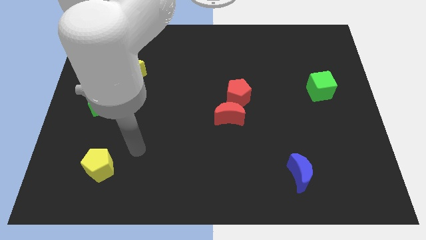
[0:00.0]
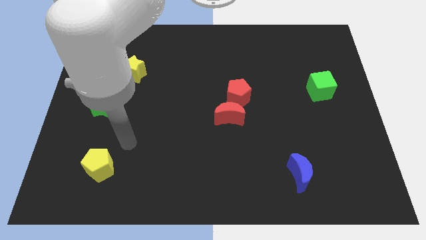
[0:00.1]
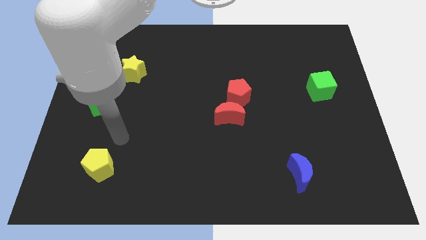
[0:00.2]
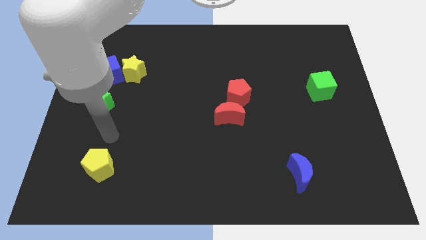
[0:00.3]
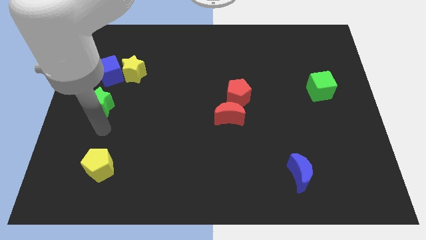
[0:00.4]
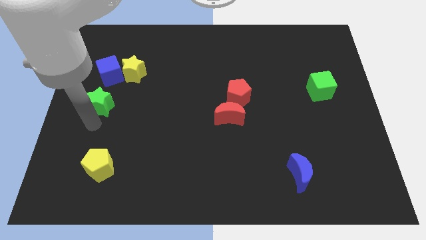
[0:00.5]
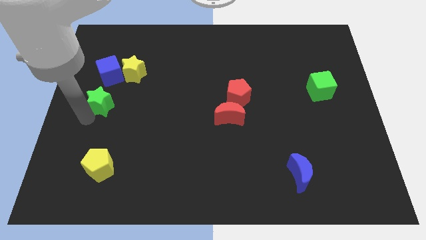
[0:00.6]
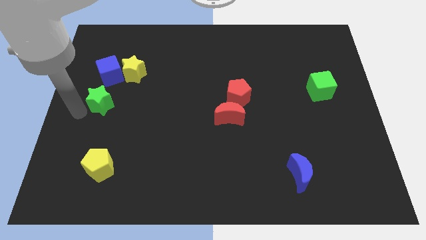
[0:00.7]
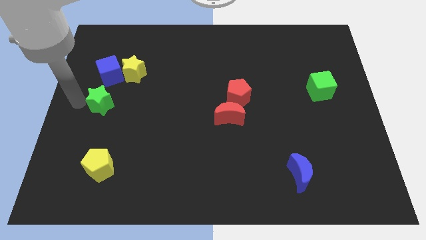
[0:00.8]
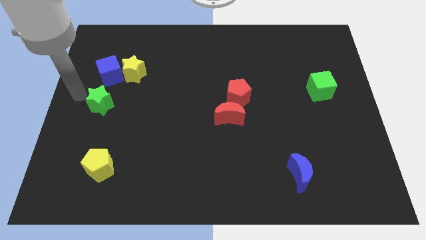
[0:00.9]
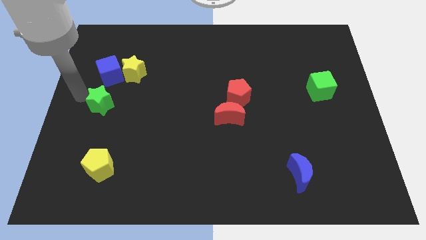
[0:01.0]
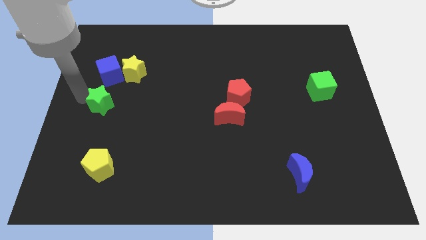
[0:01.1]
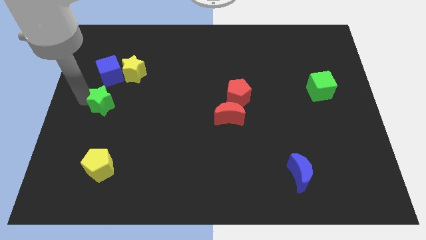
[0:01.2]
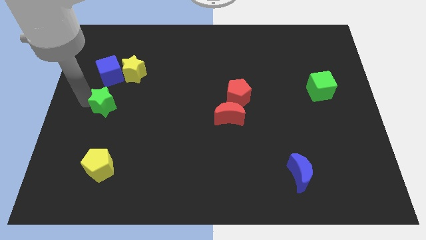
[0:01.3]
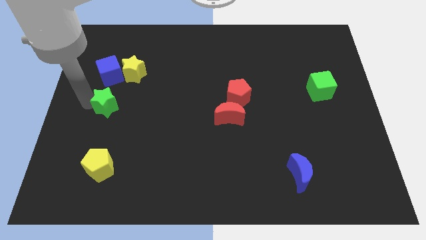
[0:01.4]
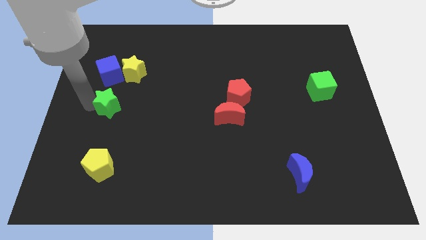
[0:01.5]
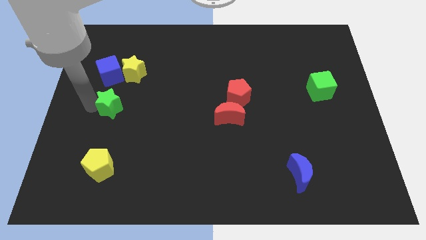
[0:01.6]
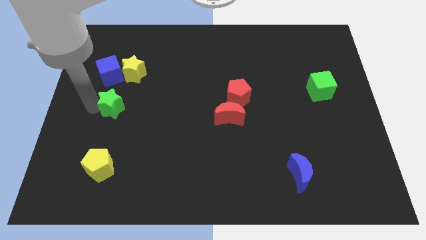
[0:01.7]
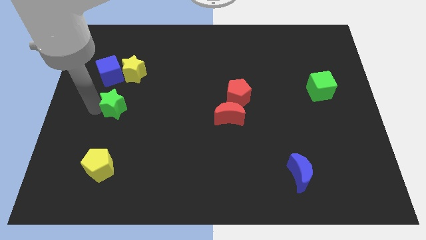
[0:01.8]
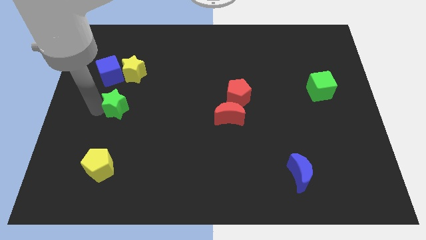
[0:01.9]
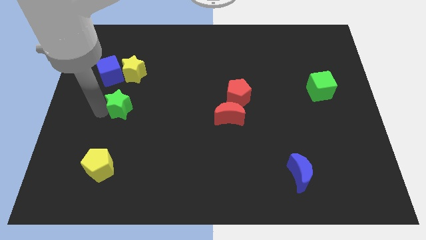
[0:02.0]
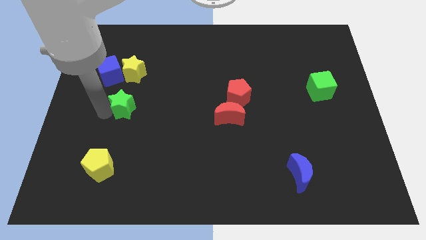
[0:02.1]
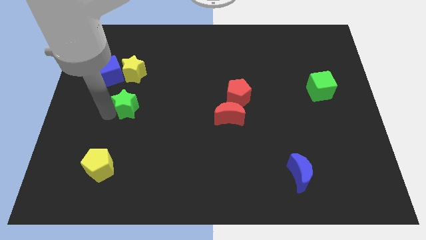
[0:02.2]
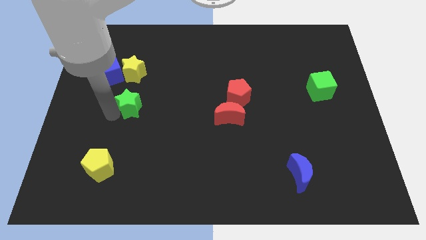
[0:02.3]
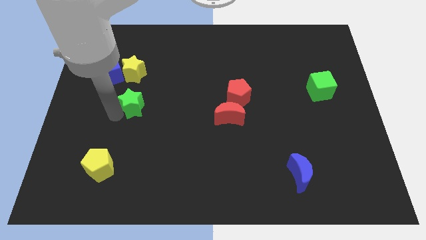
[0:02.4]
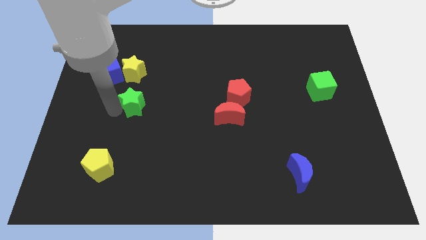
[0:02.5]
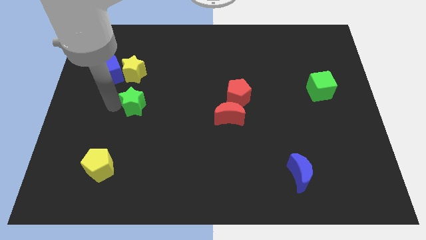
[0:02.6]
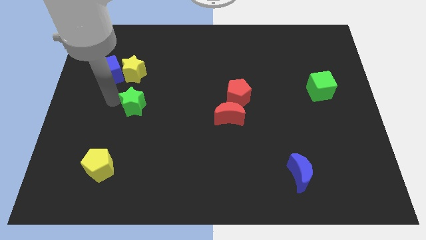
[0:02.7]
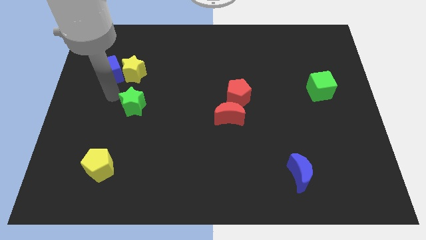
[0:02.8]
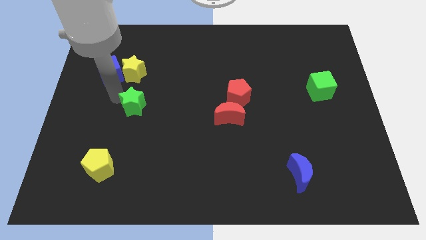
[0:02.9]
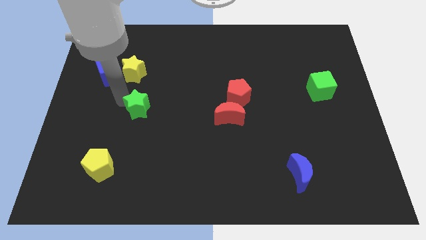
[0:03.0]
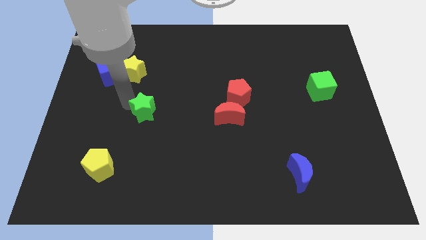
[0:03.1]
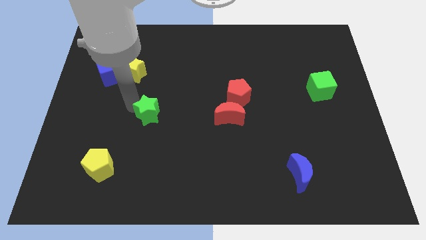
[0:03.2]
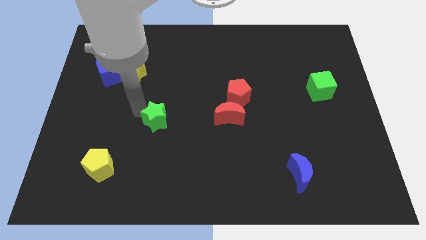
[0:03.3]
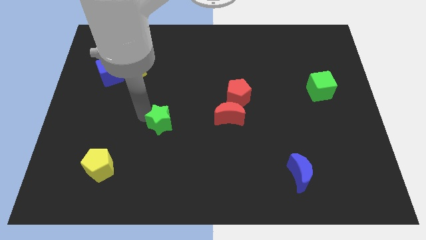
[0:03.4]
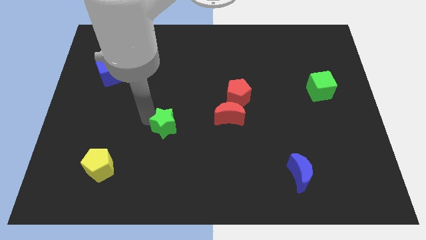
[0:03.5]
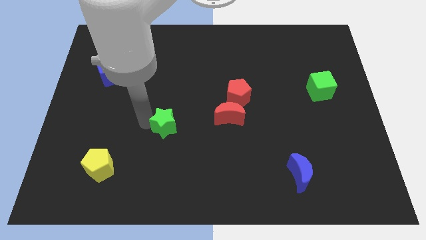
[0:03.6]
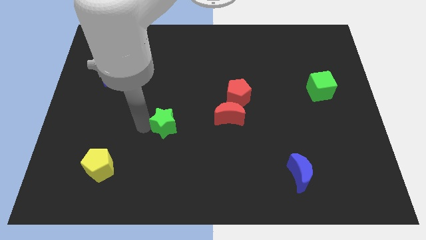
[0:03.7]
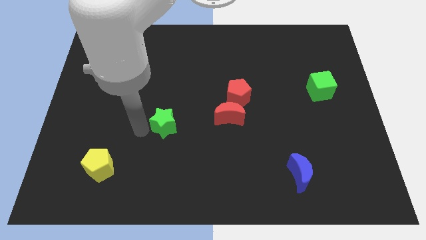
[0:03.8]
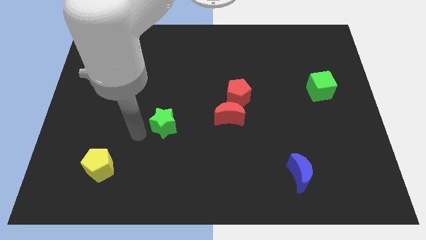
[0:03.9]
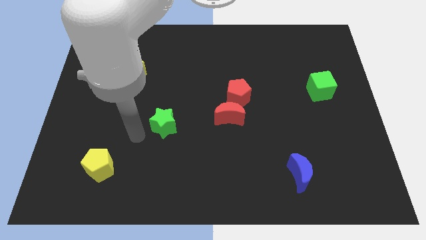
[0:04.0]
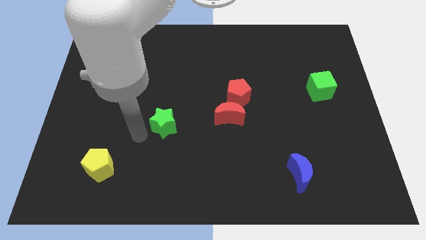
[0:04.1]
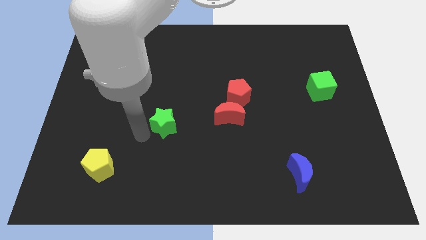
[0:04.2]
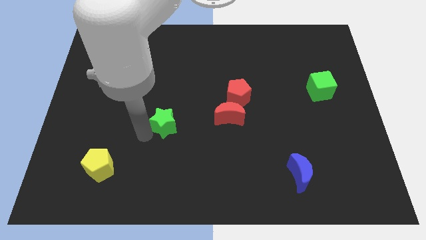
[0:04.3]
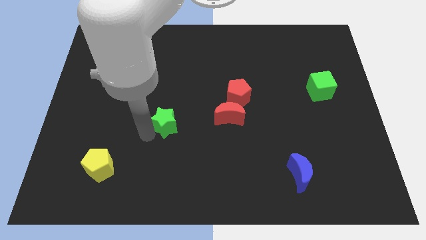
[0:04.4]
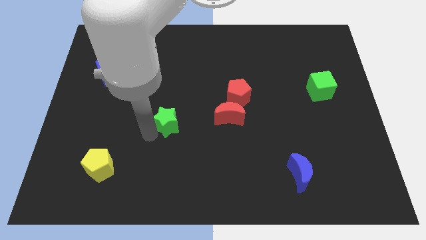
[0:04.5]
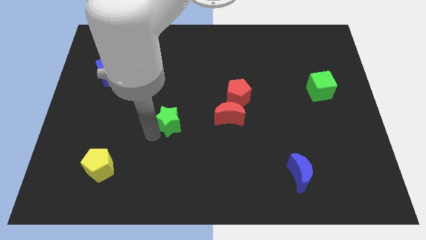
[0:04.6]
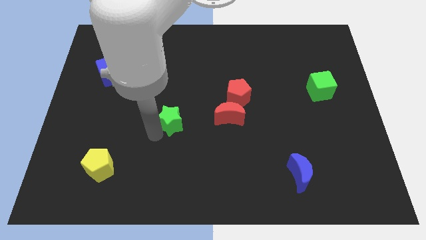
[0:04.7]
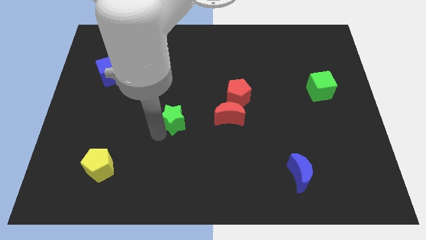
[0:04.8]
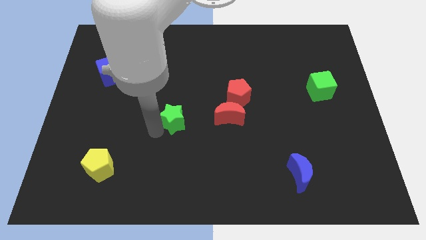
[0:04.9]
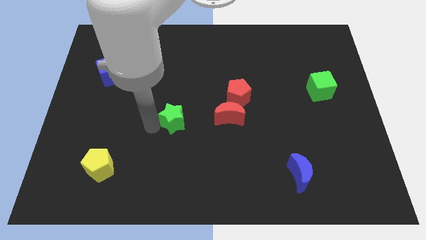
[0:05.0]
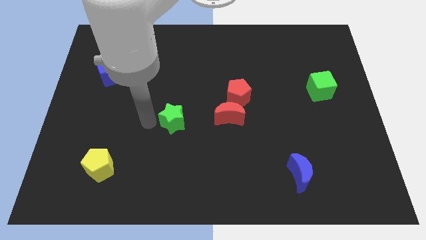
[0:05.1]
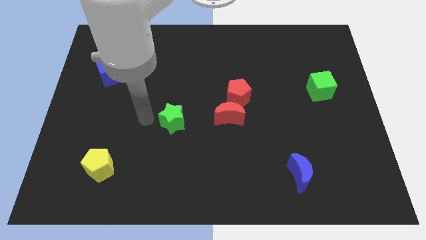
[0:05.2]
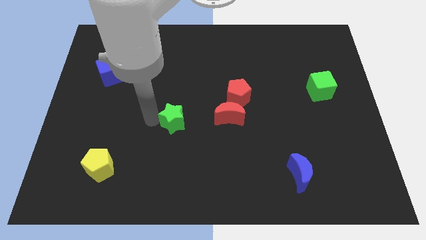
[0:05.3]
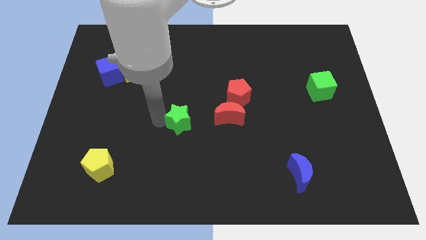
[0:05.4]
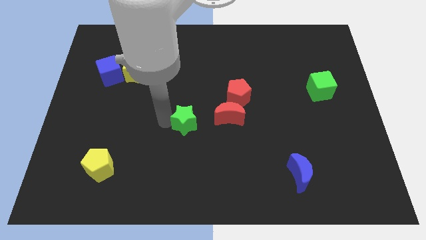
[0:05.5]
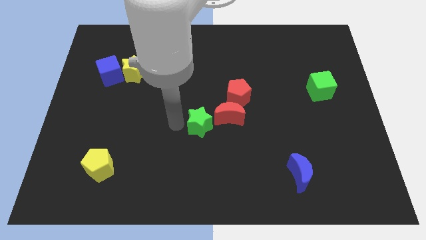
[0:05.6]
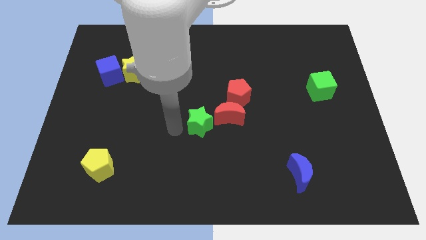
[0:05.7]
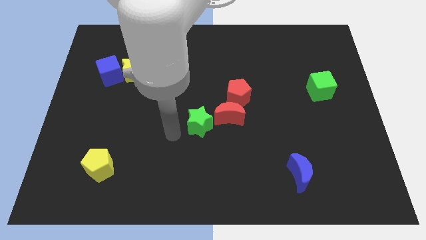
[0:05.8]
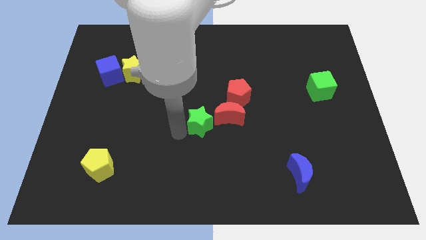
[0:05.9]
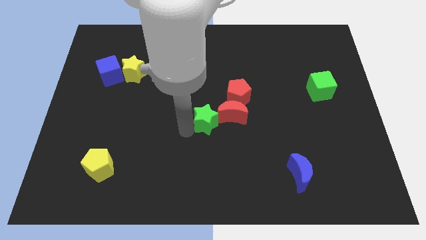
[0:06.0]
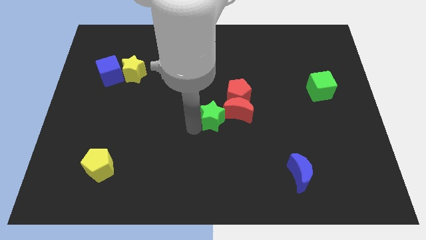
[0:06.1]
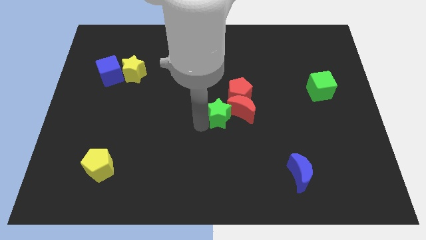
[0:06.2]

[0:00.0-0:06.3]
put the green star to the red moon

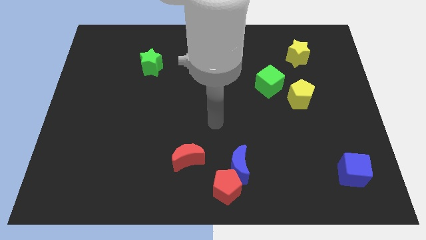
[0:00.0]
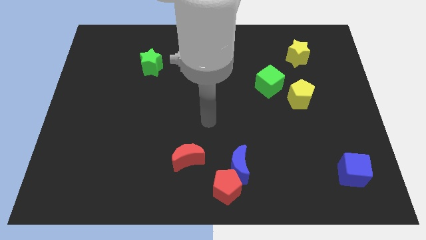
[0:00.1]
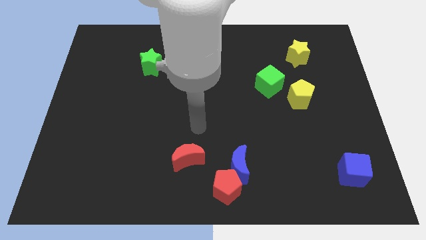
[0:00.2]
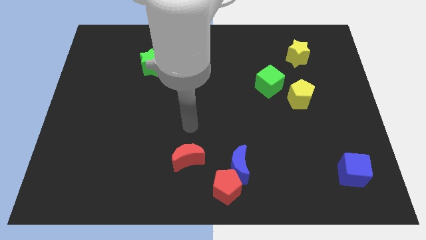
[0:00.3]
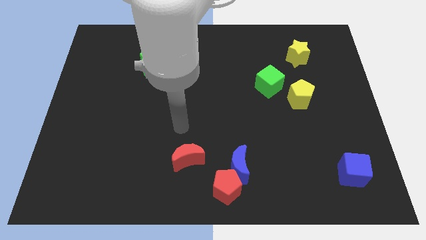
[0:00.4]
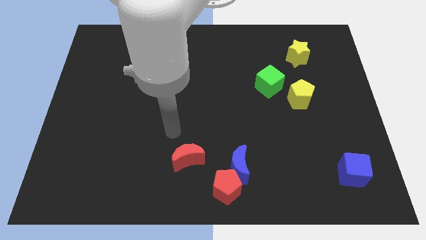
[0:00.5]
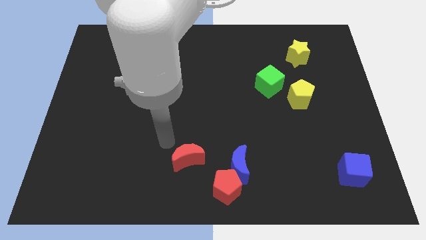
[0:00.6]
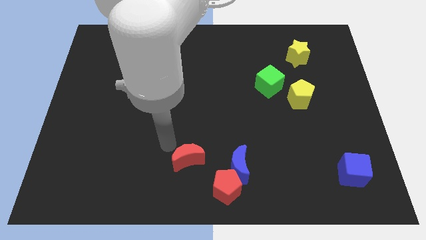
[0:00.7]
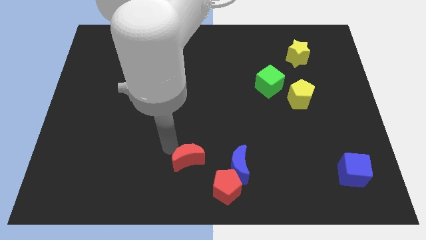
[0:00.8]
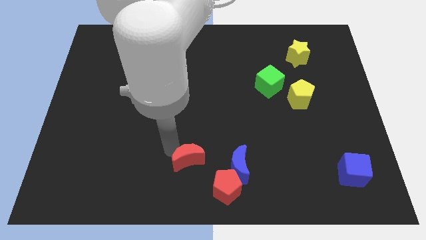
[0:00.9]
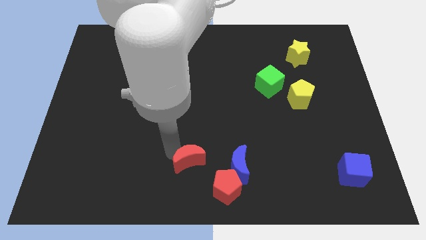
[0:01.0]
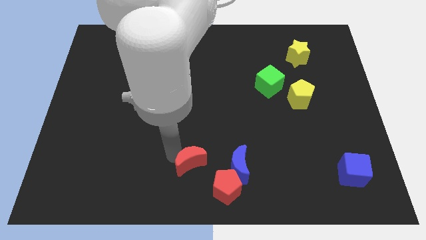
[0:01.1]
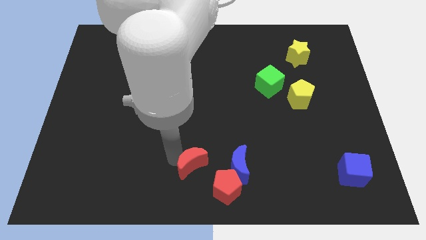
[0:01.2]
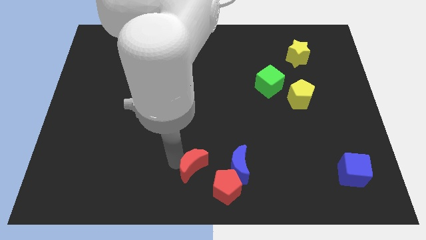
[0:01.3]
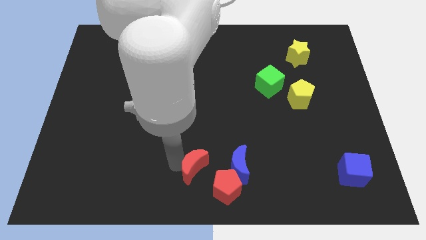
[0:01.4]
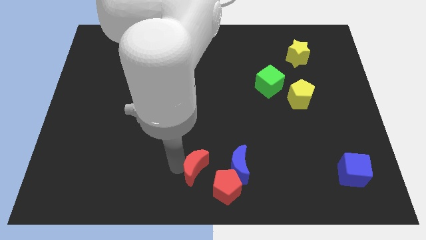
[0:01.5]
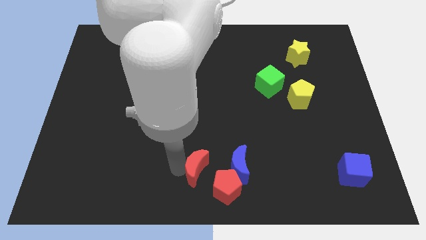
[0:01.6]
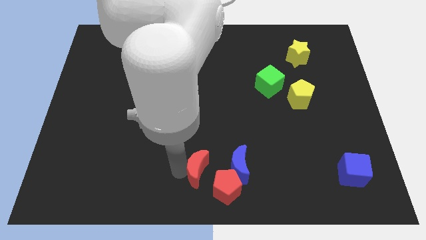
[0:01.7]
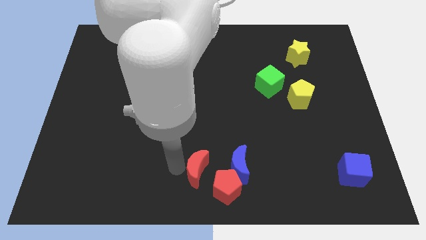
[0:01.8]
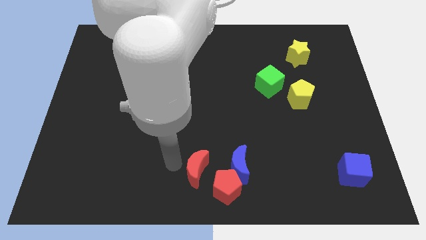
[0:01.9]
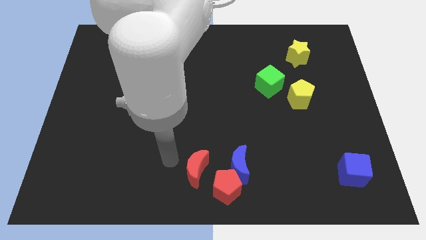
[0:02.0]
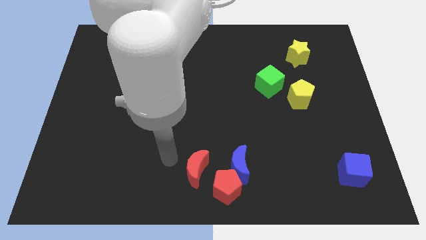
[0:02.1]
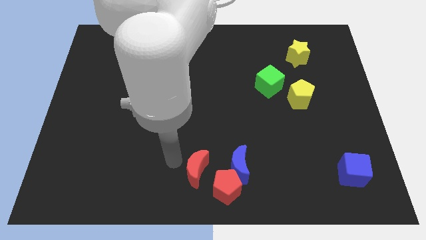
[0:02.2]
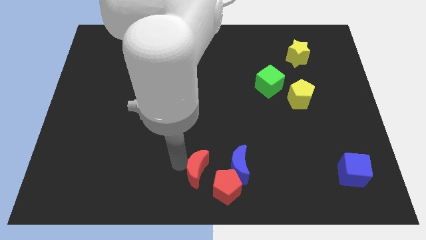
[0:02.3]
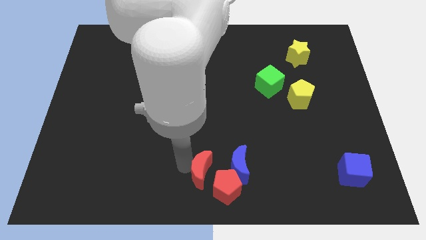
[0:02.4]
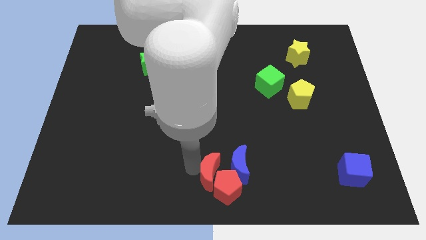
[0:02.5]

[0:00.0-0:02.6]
put the red moon next to the red pentagon
